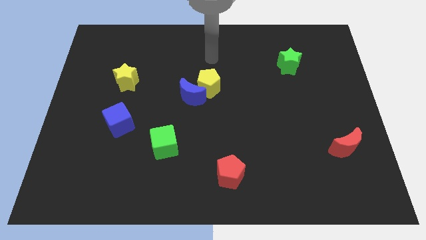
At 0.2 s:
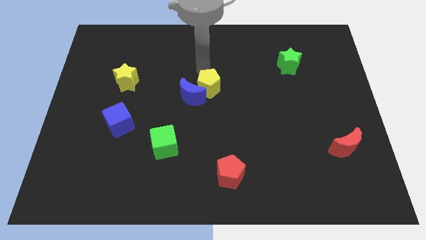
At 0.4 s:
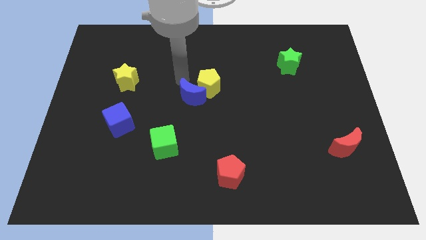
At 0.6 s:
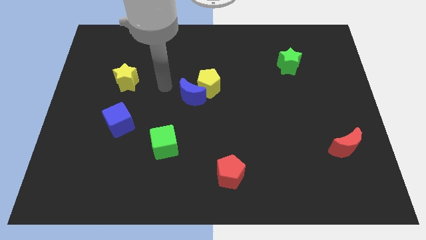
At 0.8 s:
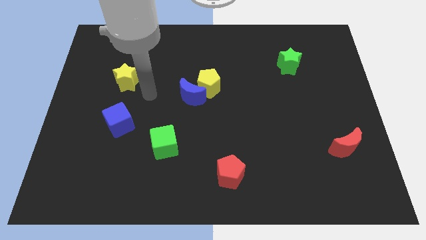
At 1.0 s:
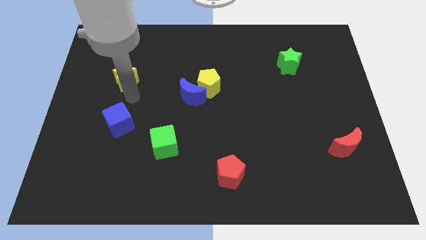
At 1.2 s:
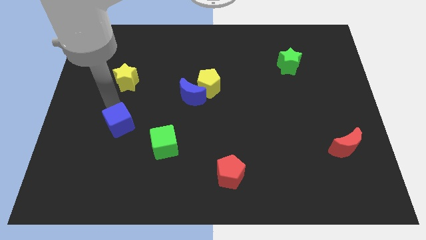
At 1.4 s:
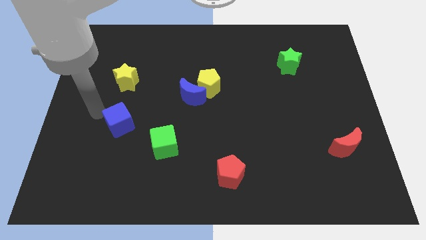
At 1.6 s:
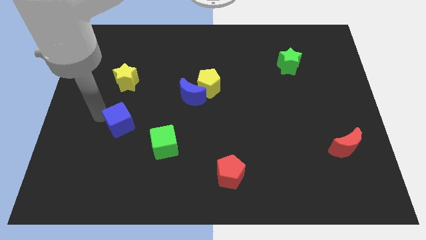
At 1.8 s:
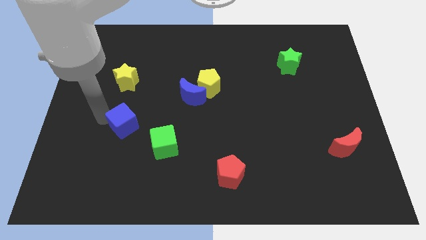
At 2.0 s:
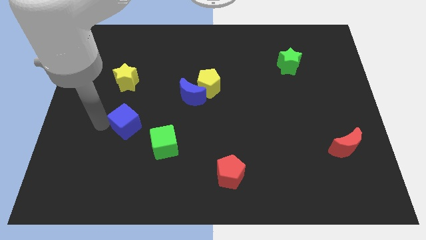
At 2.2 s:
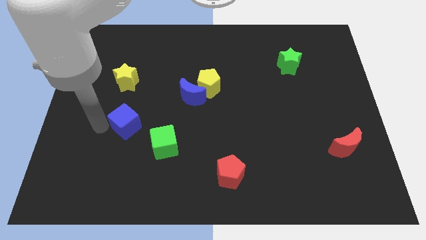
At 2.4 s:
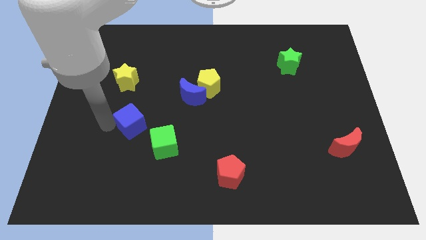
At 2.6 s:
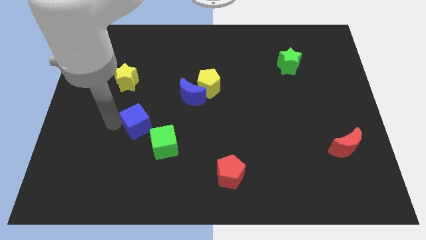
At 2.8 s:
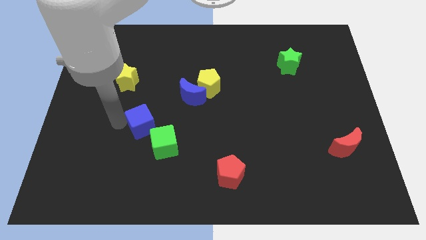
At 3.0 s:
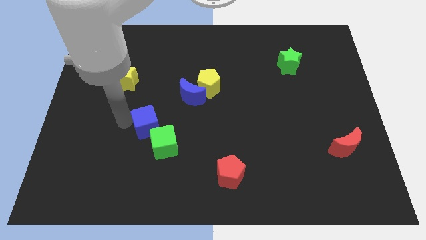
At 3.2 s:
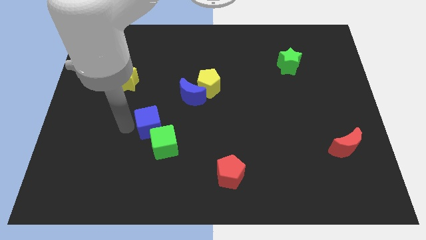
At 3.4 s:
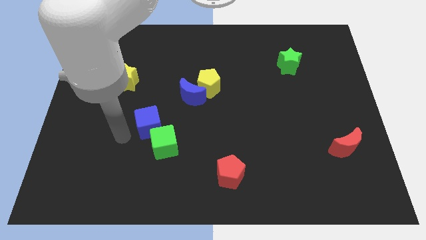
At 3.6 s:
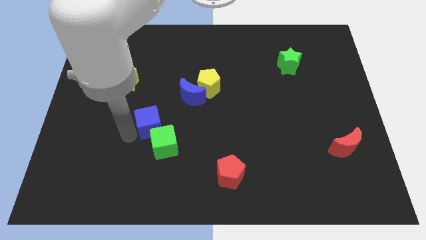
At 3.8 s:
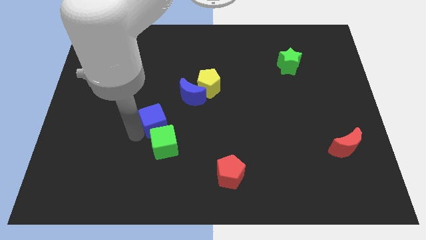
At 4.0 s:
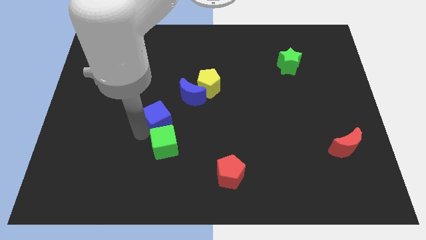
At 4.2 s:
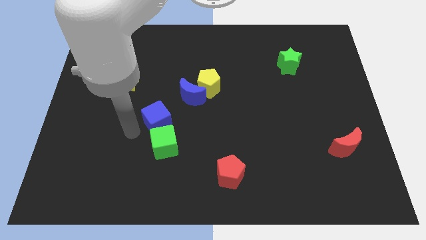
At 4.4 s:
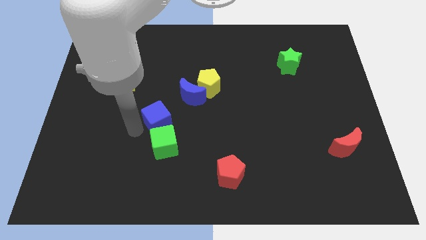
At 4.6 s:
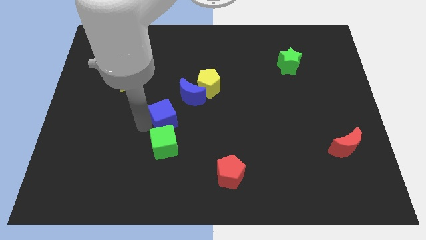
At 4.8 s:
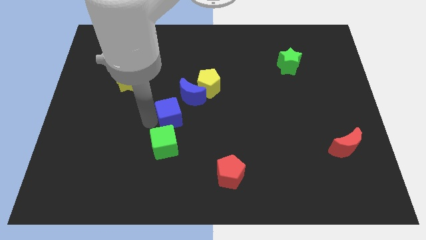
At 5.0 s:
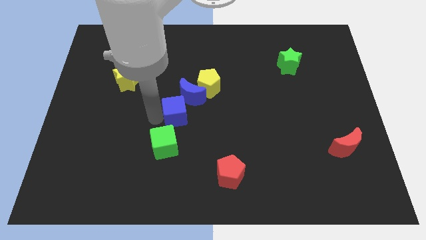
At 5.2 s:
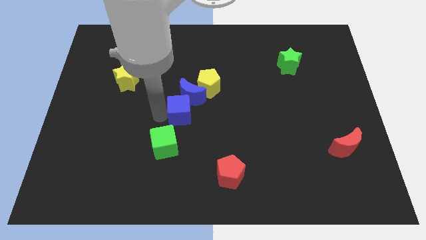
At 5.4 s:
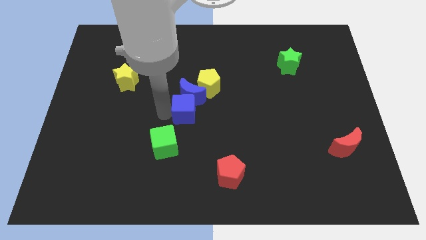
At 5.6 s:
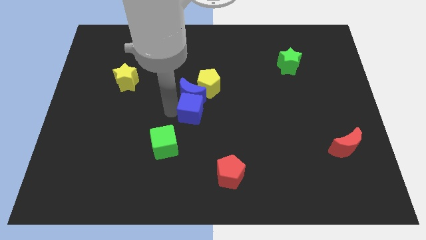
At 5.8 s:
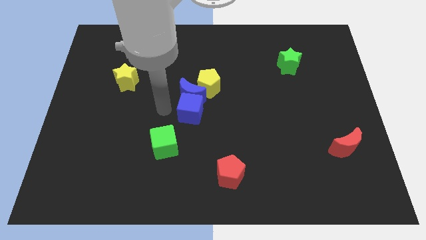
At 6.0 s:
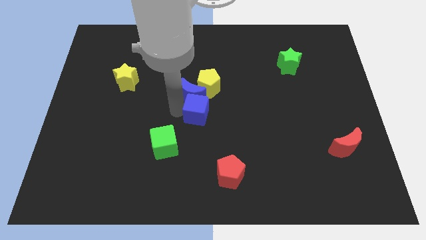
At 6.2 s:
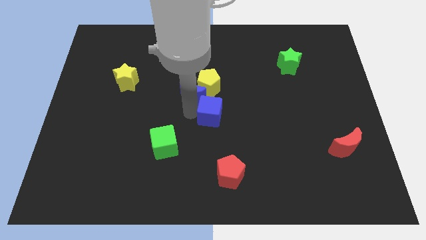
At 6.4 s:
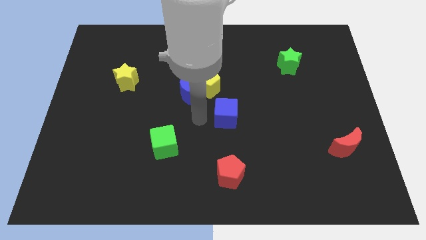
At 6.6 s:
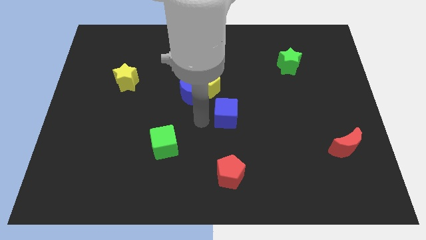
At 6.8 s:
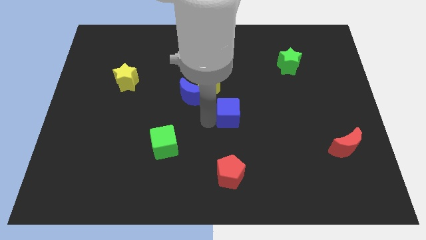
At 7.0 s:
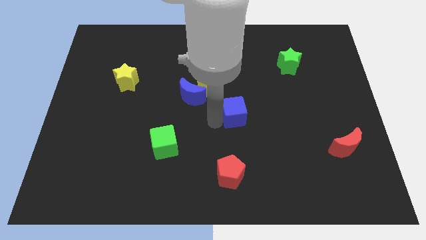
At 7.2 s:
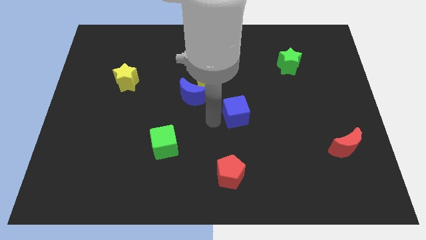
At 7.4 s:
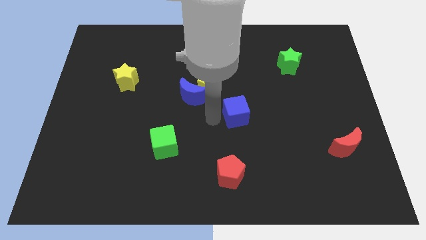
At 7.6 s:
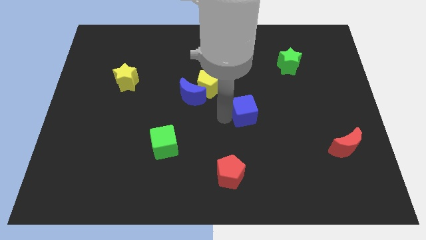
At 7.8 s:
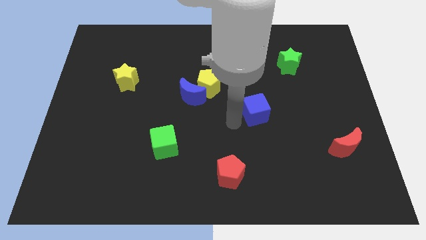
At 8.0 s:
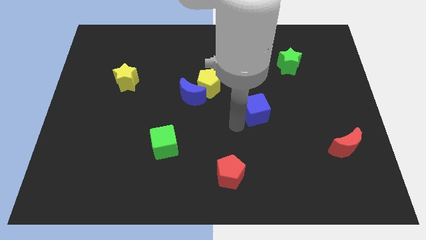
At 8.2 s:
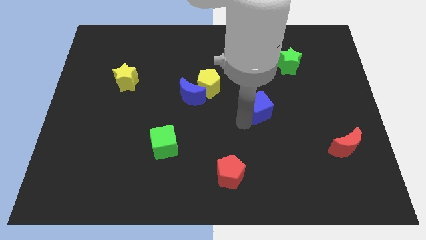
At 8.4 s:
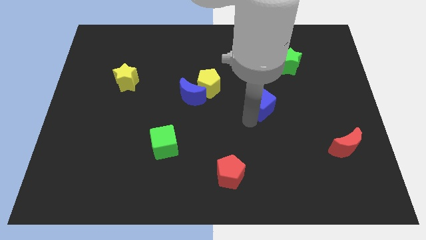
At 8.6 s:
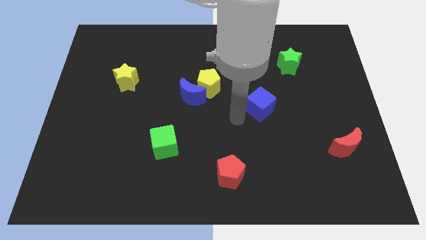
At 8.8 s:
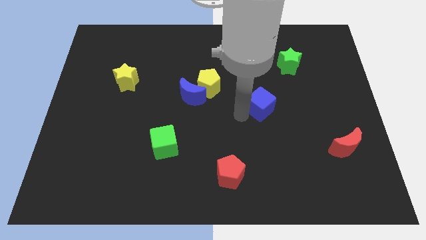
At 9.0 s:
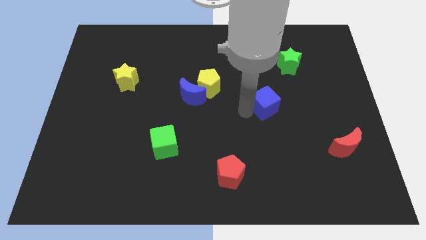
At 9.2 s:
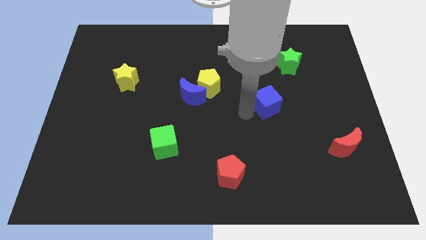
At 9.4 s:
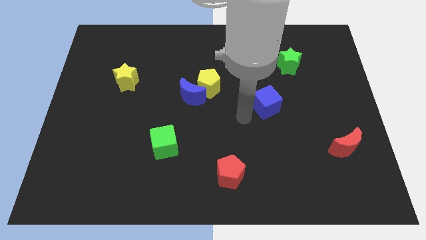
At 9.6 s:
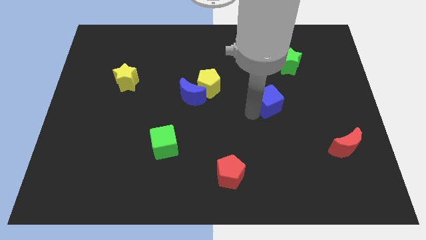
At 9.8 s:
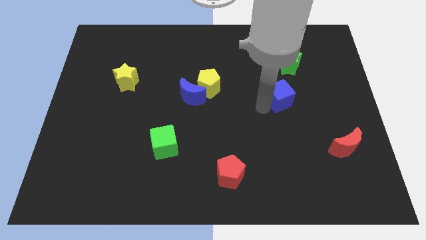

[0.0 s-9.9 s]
push the blue cube to the bottom of the green star

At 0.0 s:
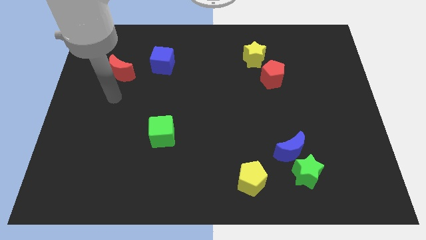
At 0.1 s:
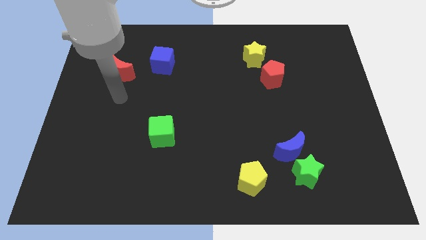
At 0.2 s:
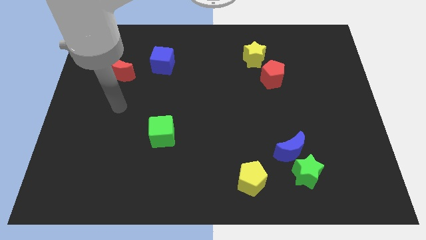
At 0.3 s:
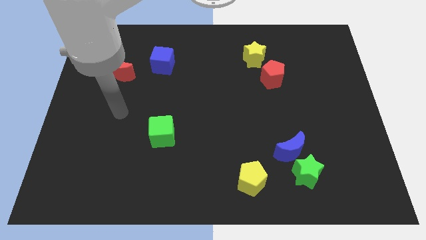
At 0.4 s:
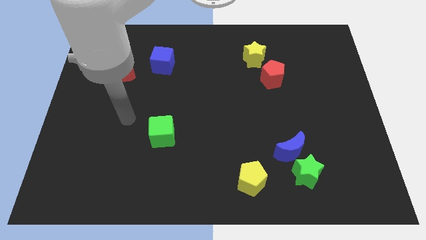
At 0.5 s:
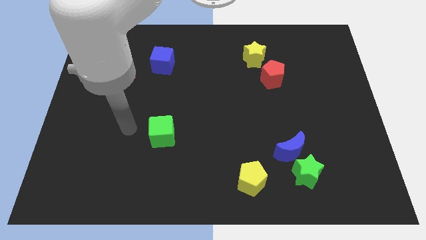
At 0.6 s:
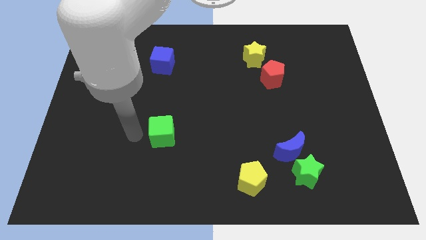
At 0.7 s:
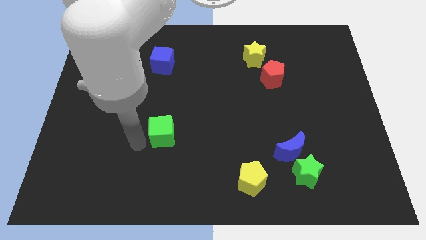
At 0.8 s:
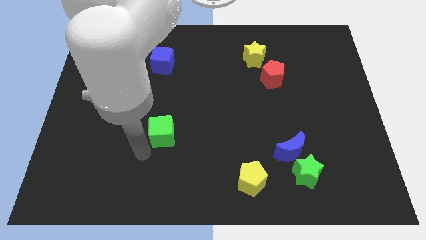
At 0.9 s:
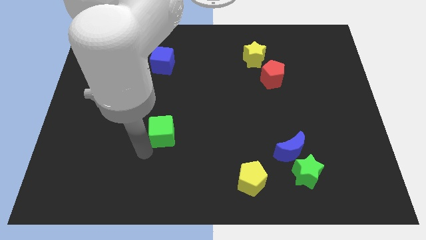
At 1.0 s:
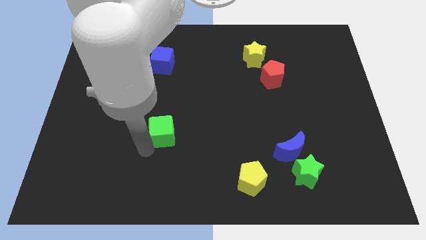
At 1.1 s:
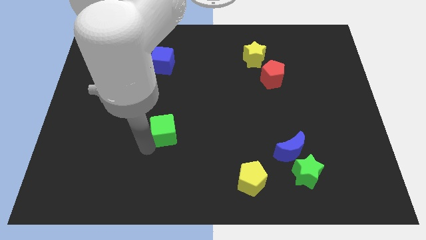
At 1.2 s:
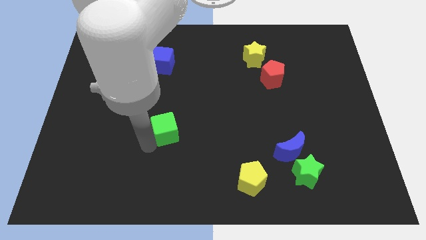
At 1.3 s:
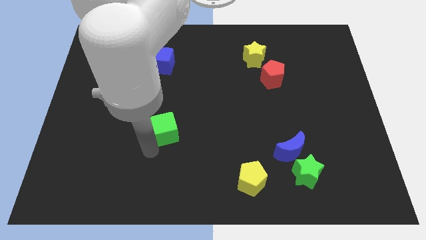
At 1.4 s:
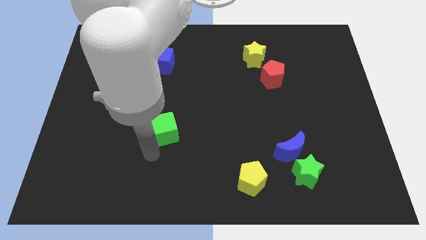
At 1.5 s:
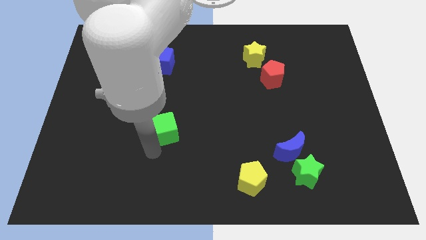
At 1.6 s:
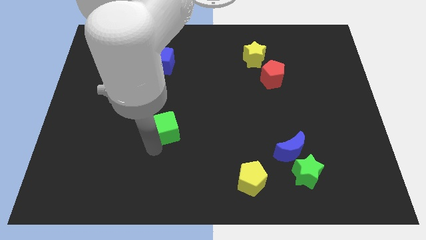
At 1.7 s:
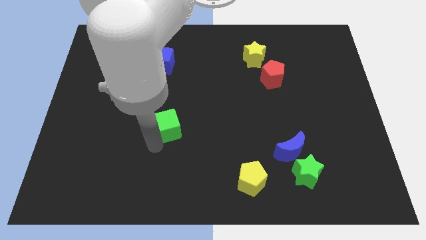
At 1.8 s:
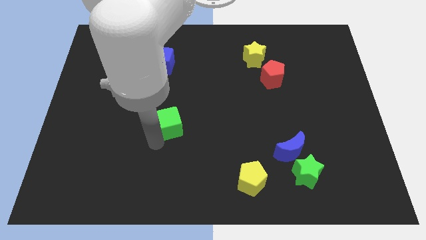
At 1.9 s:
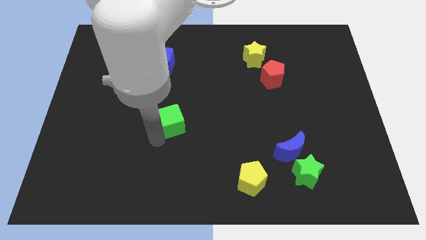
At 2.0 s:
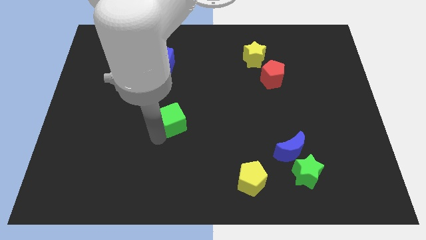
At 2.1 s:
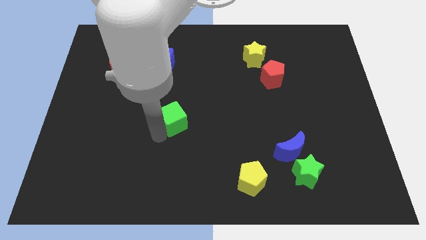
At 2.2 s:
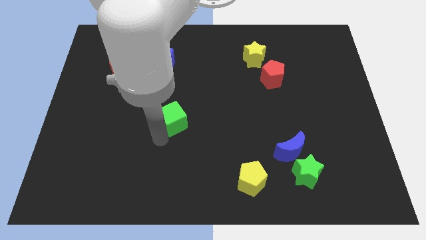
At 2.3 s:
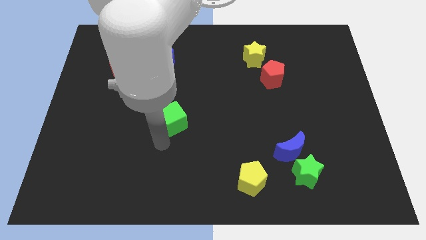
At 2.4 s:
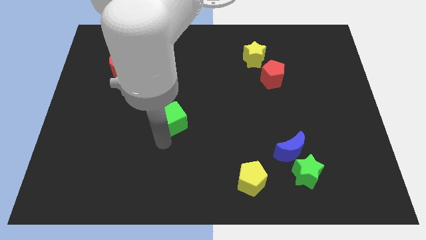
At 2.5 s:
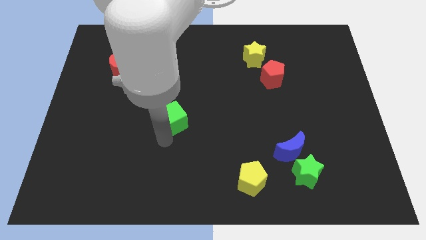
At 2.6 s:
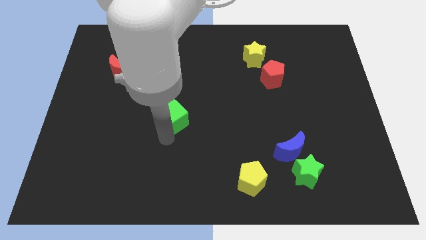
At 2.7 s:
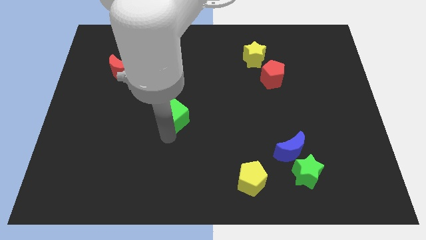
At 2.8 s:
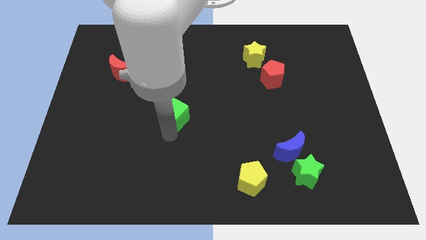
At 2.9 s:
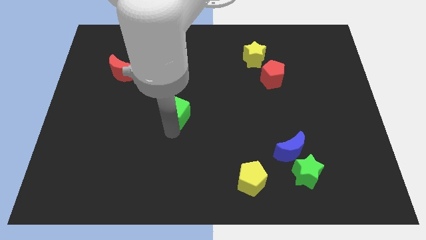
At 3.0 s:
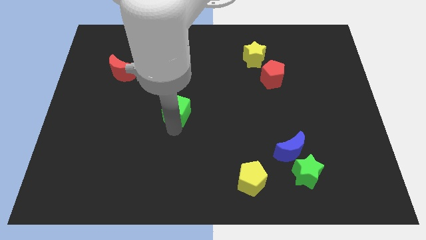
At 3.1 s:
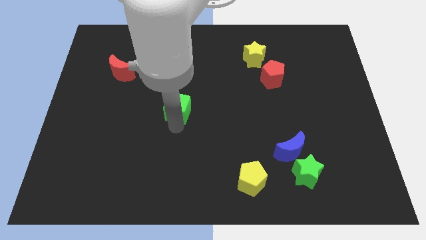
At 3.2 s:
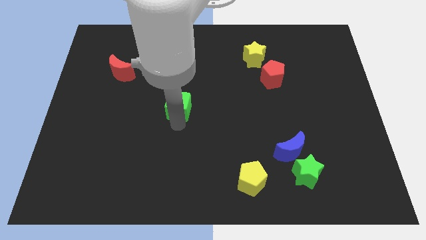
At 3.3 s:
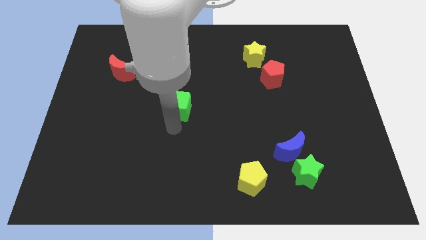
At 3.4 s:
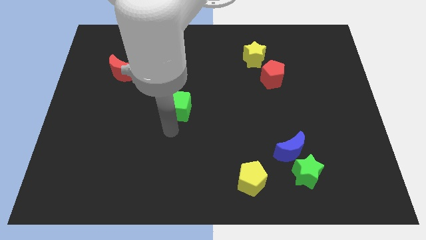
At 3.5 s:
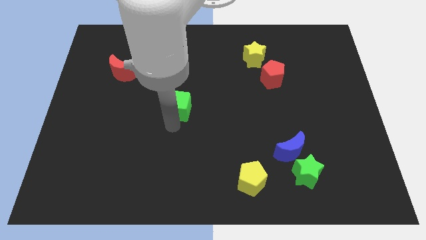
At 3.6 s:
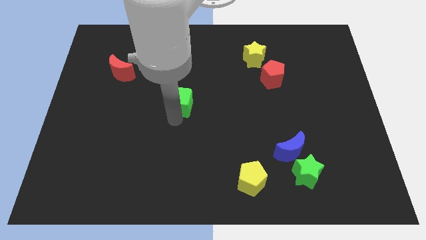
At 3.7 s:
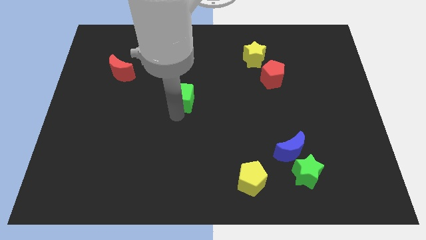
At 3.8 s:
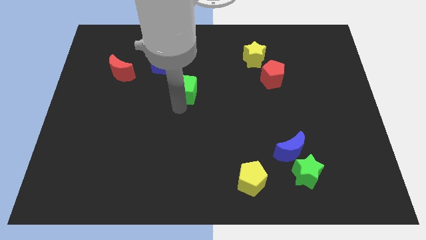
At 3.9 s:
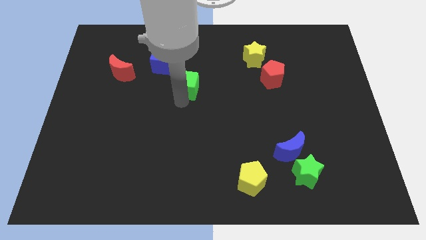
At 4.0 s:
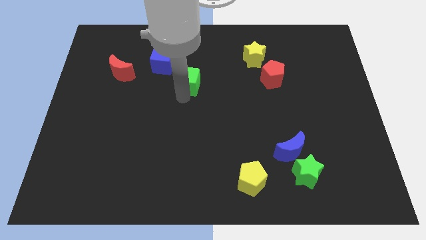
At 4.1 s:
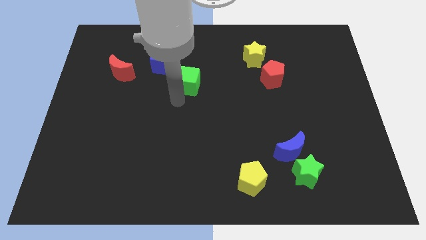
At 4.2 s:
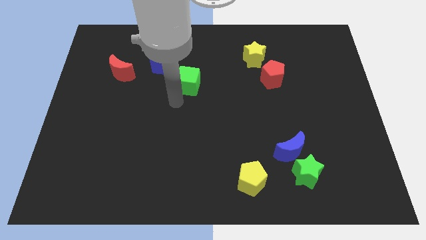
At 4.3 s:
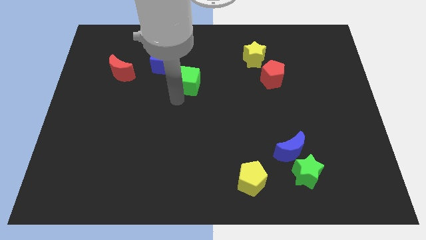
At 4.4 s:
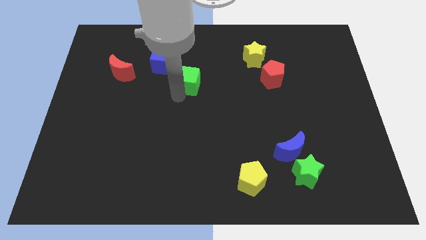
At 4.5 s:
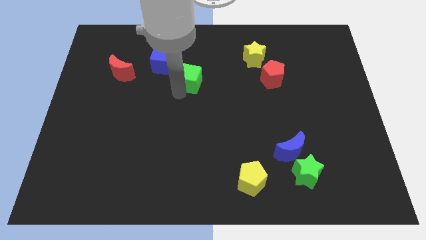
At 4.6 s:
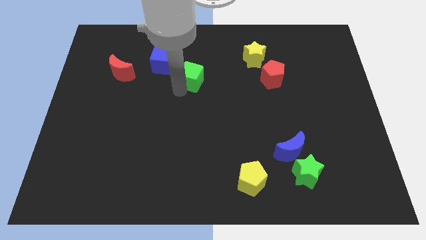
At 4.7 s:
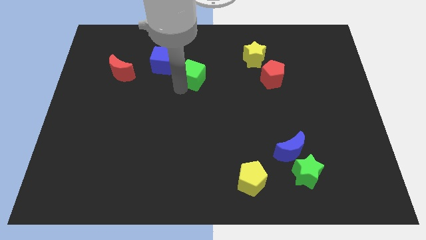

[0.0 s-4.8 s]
slide the green cube just right of the blue cube
